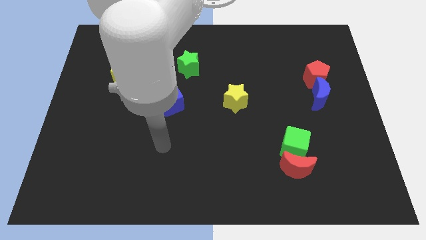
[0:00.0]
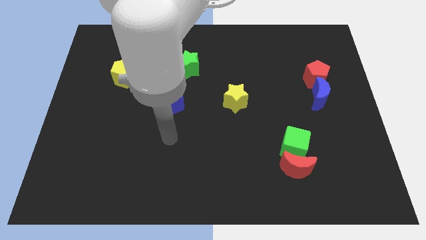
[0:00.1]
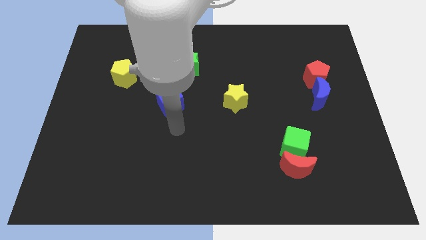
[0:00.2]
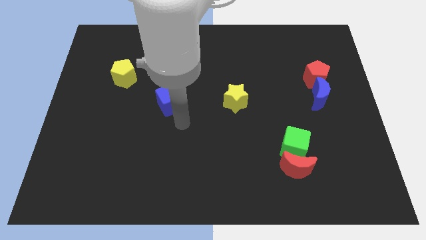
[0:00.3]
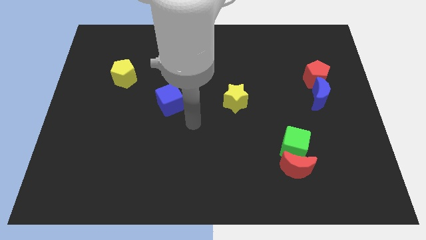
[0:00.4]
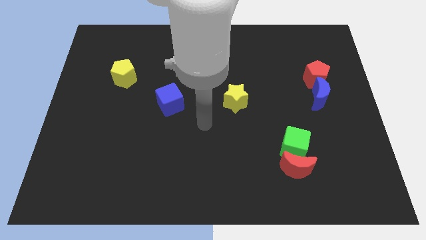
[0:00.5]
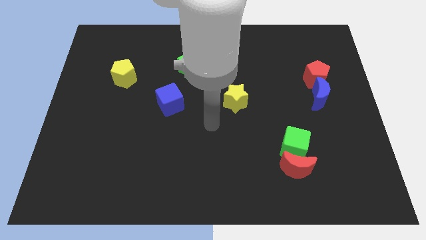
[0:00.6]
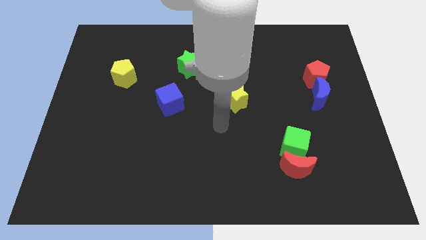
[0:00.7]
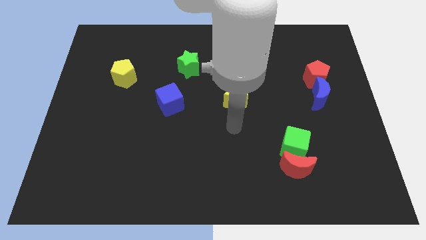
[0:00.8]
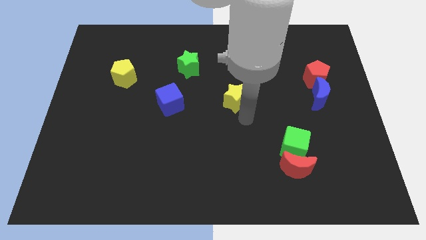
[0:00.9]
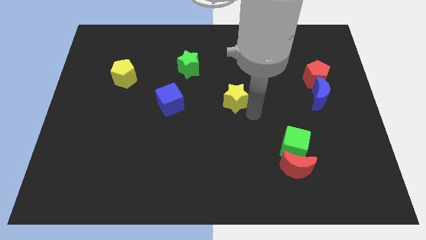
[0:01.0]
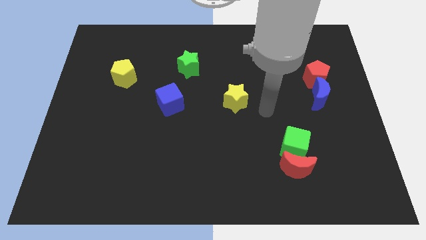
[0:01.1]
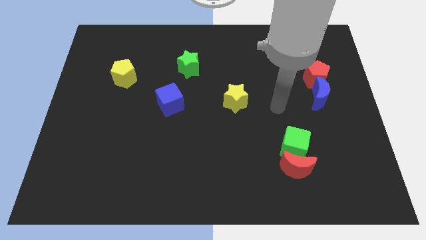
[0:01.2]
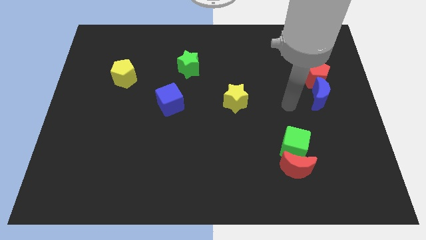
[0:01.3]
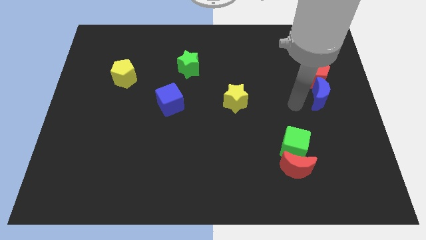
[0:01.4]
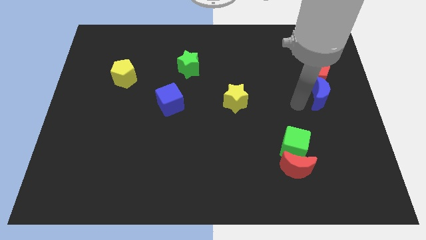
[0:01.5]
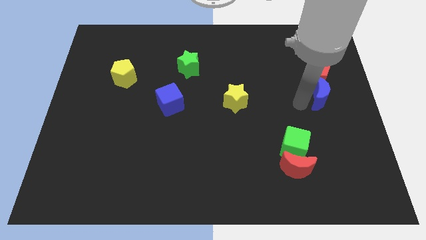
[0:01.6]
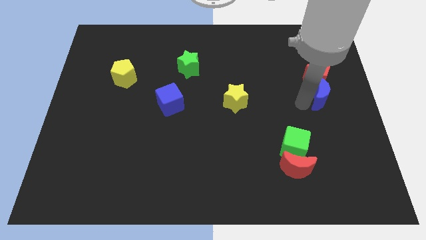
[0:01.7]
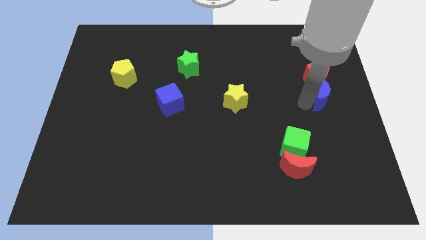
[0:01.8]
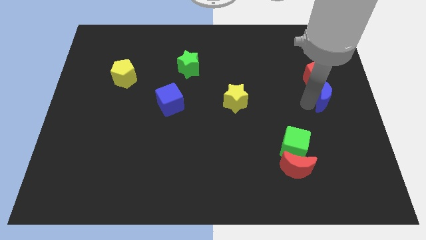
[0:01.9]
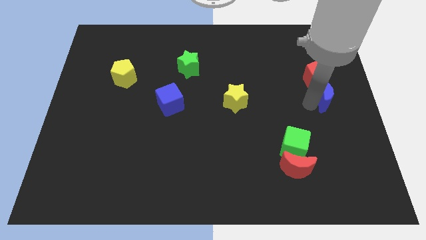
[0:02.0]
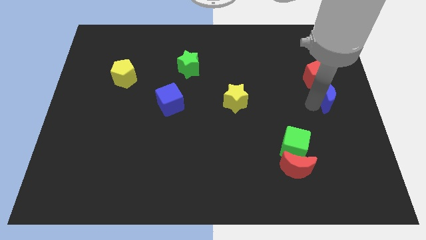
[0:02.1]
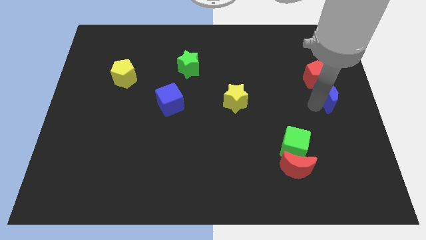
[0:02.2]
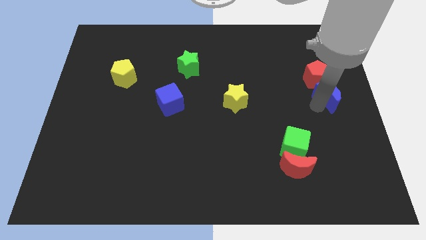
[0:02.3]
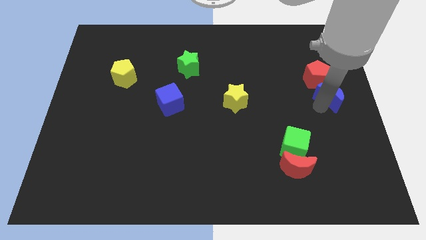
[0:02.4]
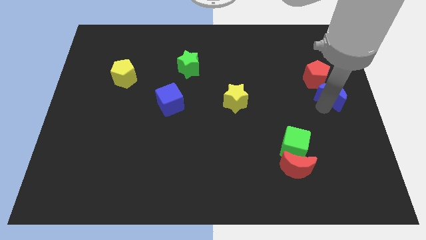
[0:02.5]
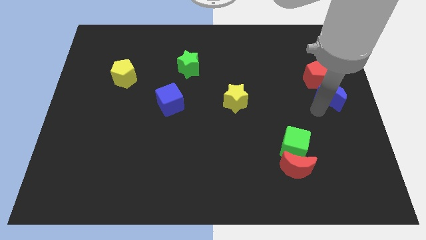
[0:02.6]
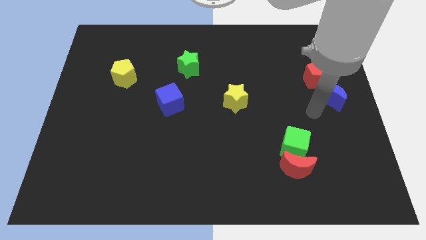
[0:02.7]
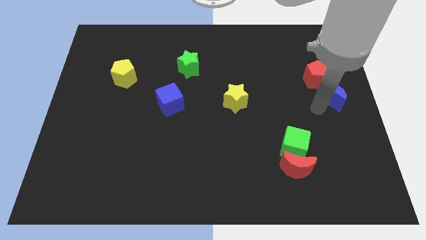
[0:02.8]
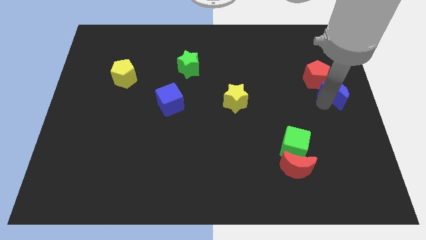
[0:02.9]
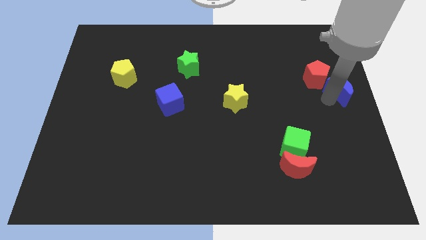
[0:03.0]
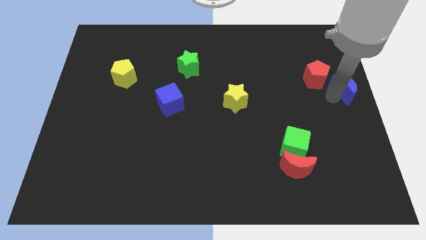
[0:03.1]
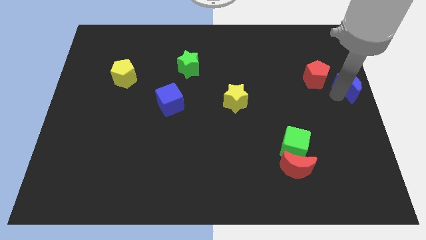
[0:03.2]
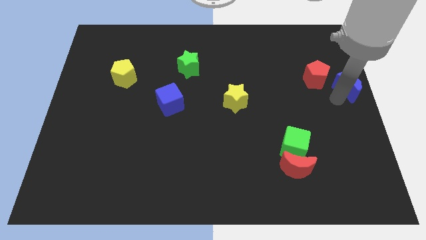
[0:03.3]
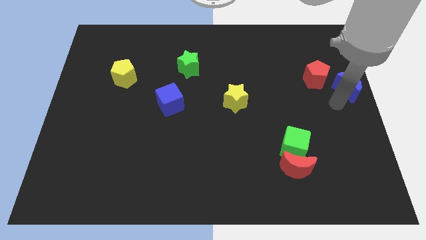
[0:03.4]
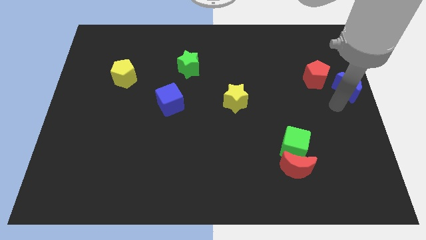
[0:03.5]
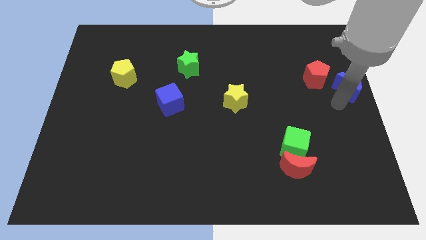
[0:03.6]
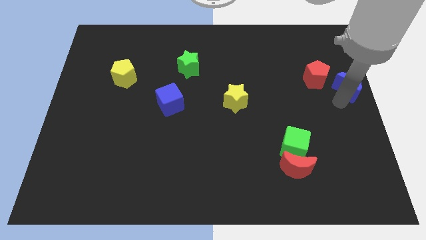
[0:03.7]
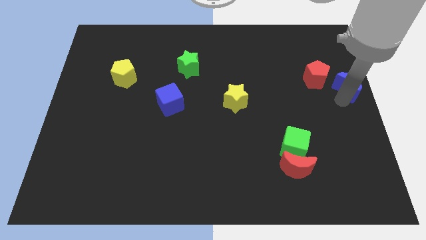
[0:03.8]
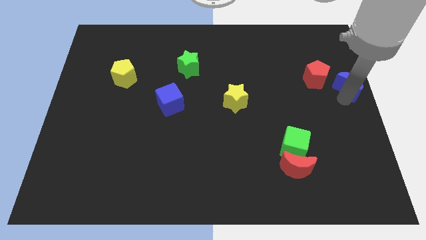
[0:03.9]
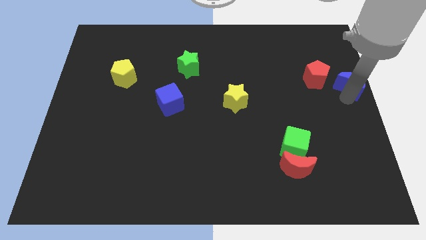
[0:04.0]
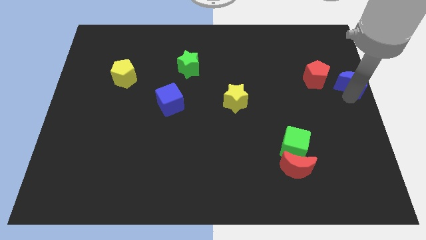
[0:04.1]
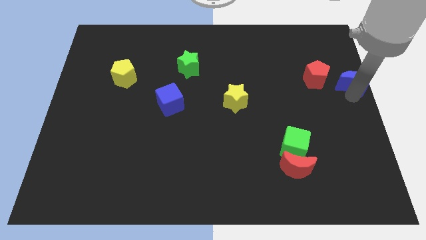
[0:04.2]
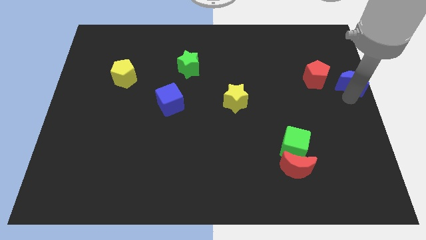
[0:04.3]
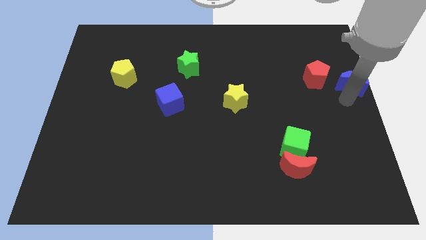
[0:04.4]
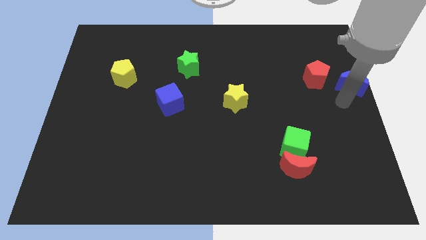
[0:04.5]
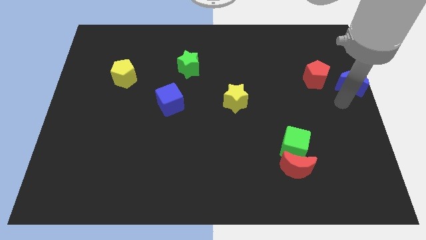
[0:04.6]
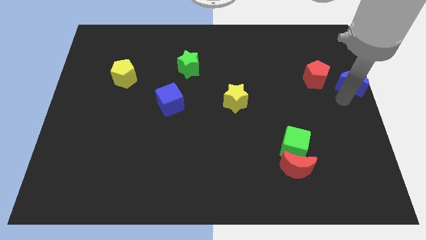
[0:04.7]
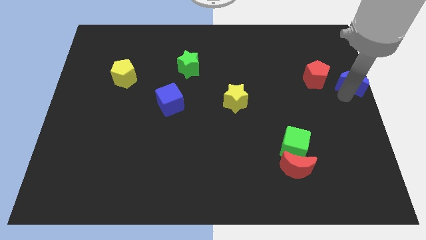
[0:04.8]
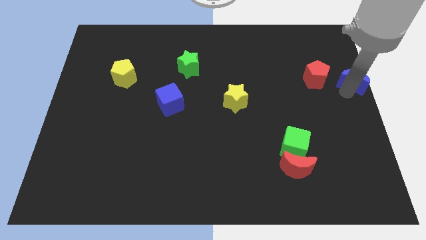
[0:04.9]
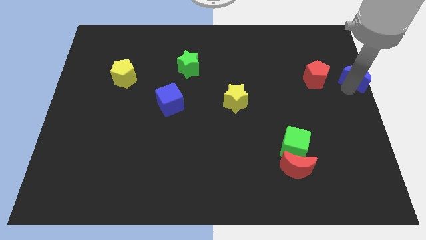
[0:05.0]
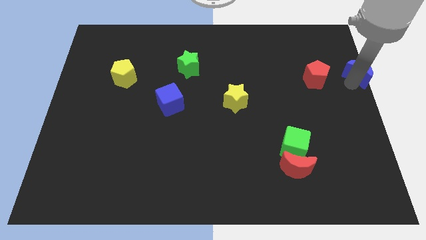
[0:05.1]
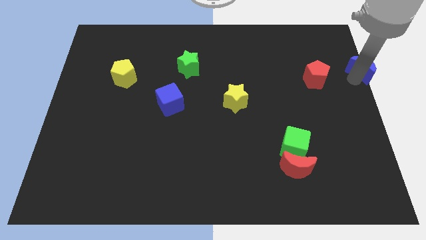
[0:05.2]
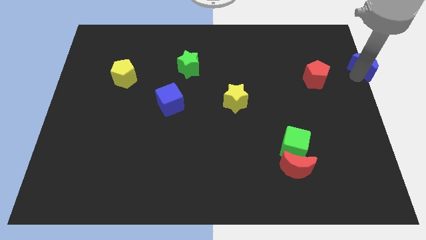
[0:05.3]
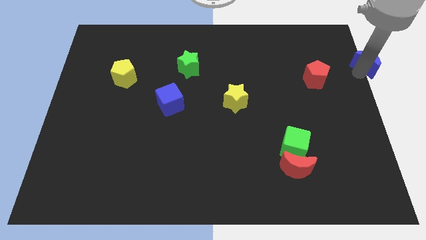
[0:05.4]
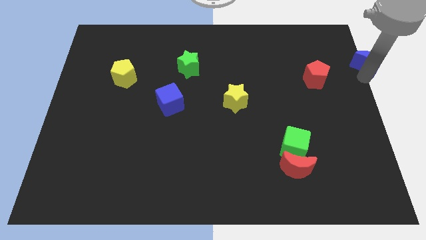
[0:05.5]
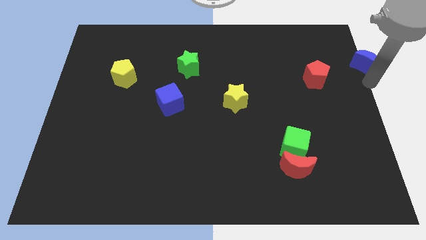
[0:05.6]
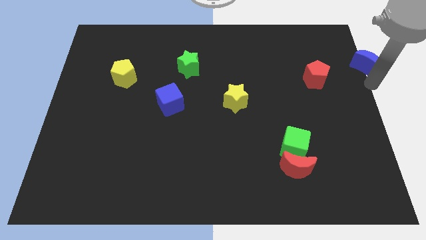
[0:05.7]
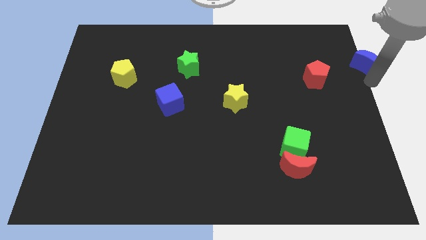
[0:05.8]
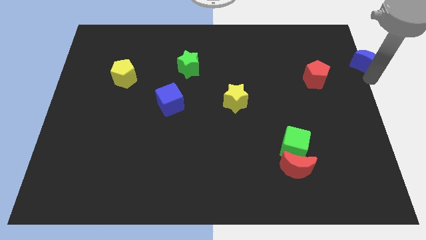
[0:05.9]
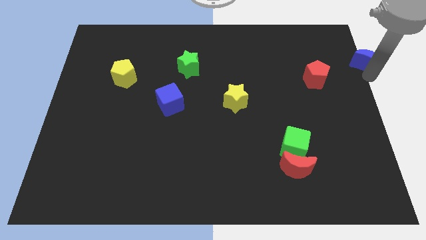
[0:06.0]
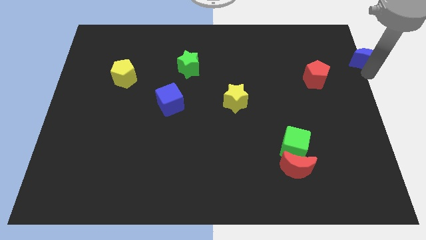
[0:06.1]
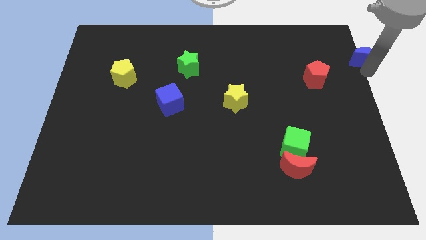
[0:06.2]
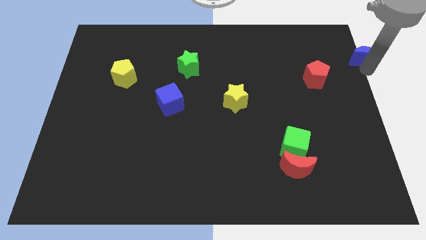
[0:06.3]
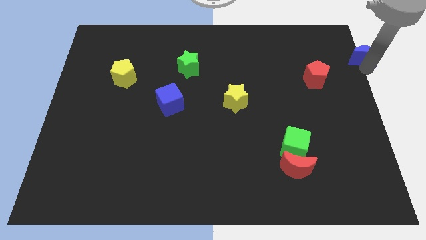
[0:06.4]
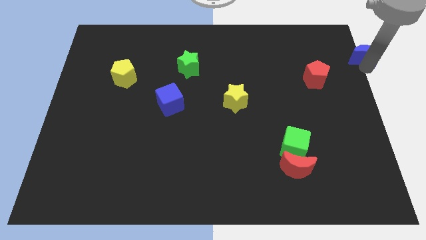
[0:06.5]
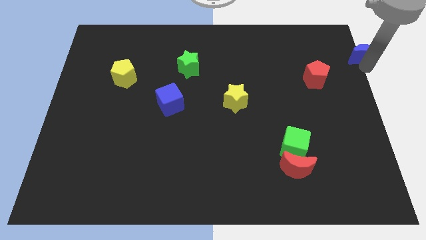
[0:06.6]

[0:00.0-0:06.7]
push the blue moon to the top right of the board
